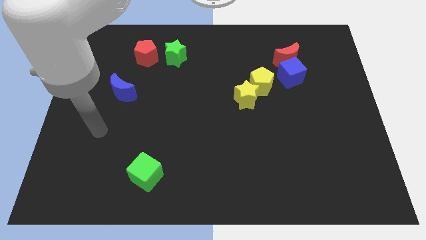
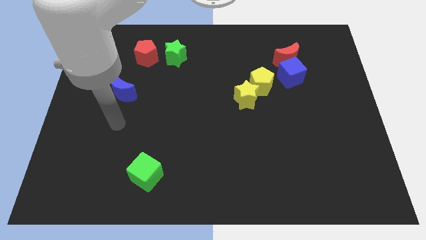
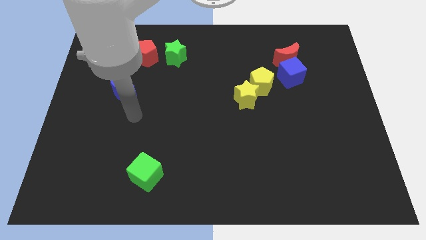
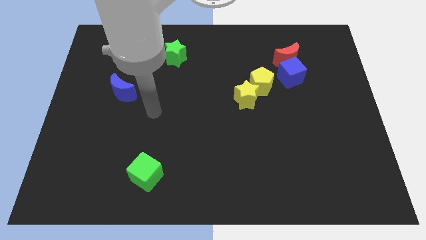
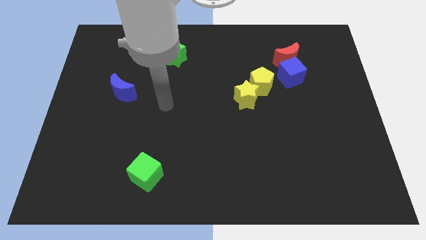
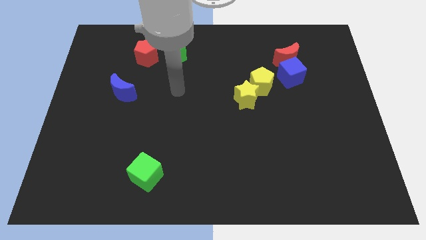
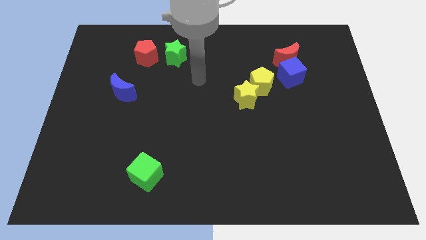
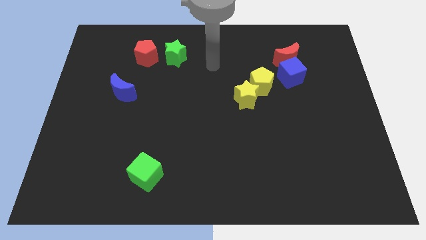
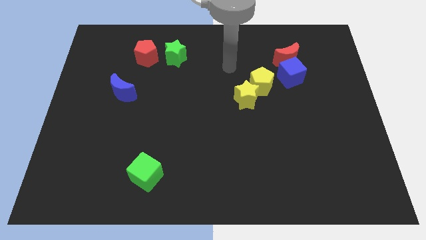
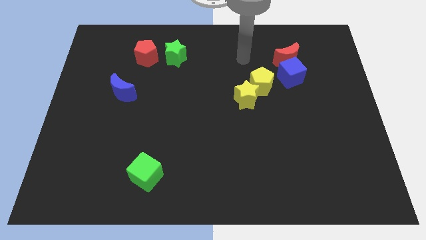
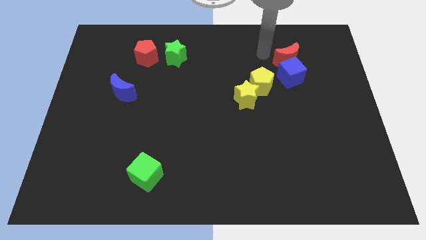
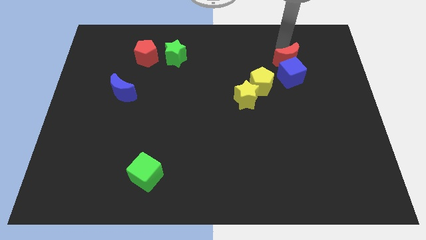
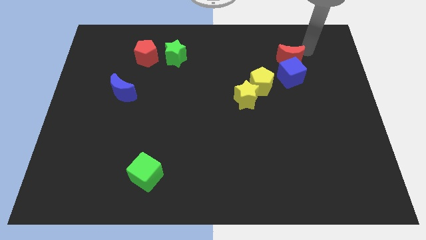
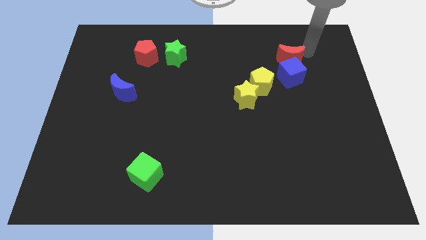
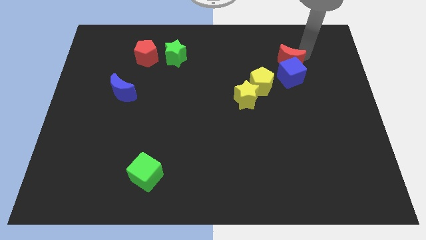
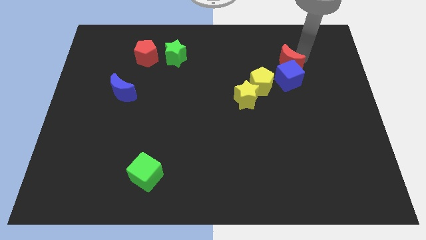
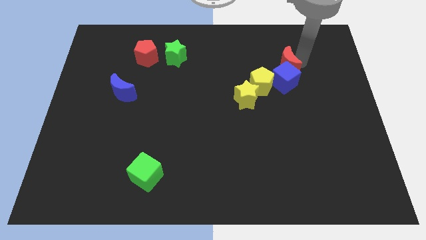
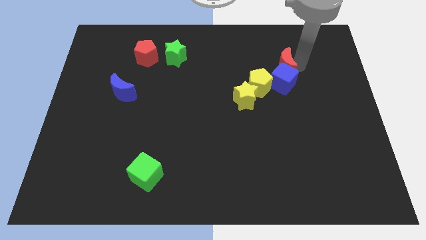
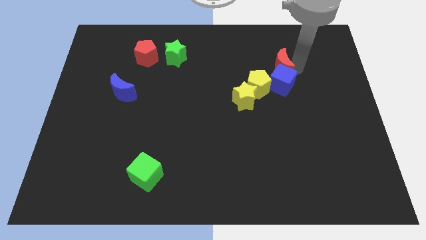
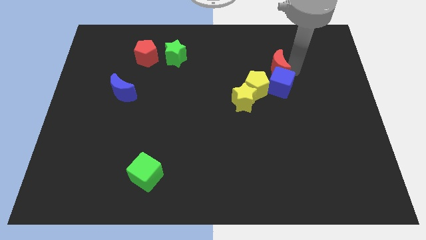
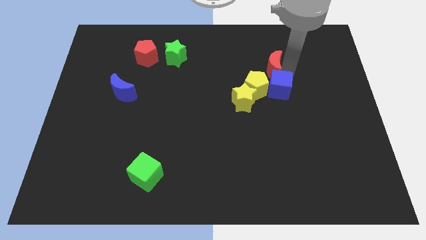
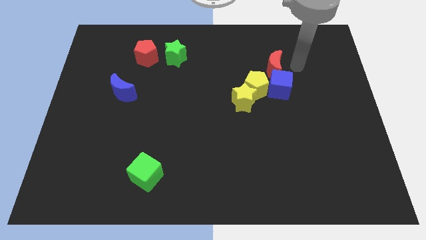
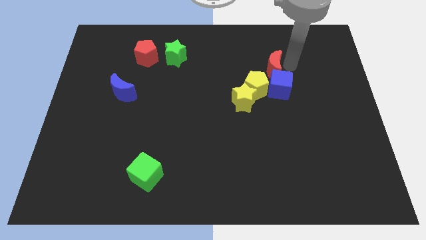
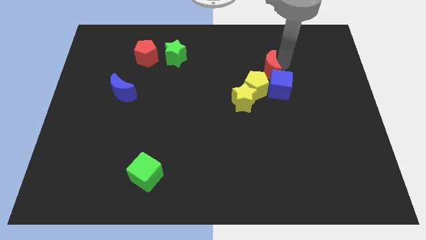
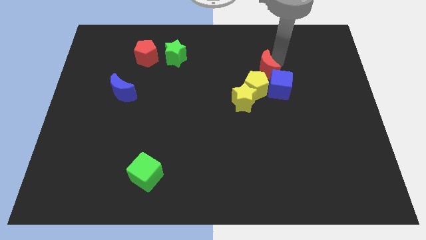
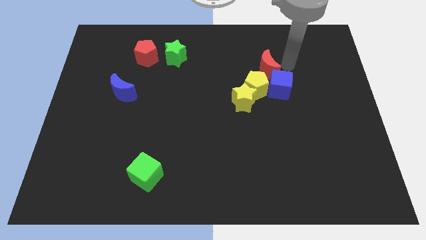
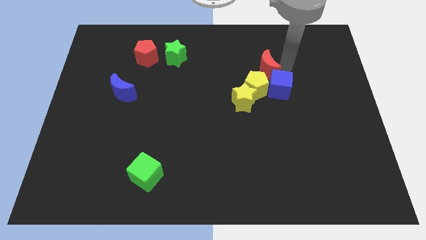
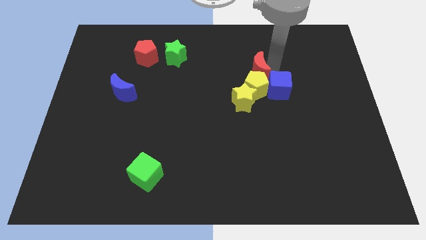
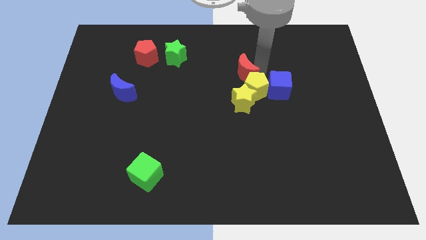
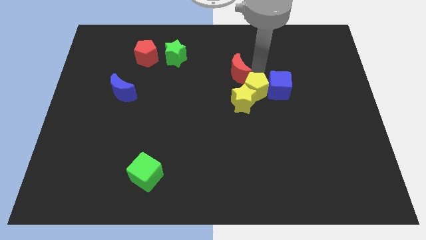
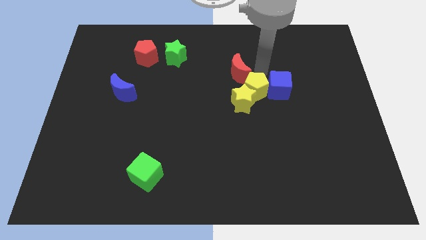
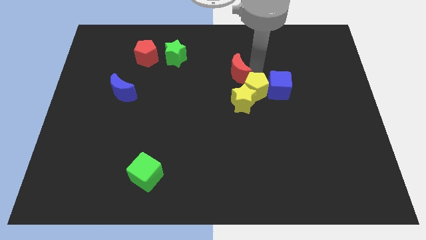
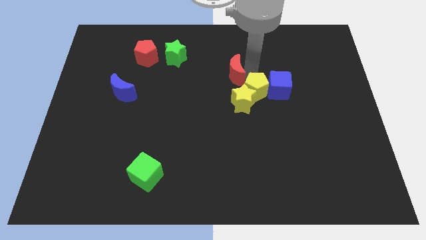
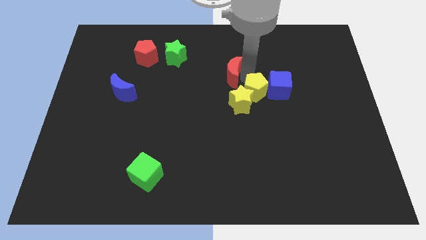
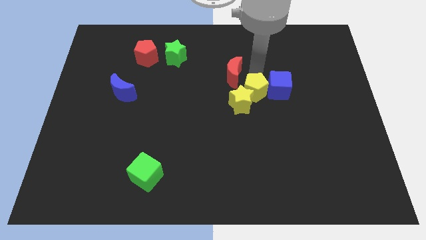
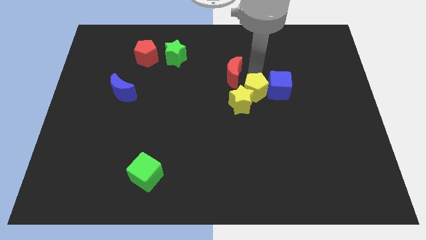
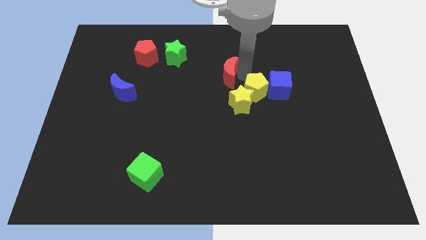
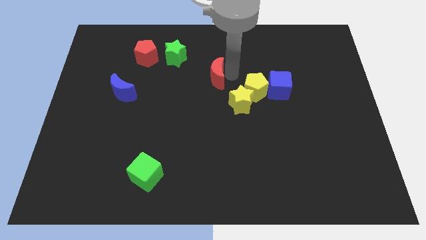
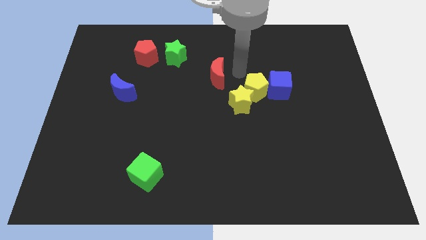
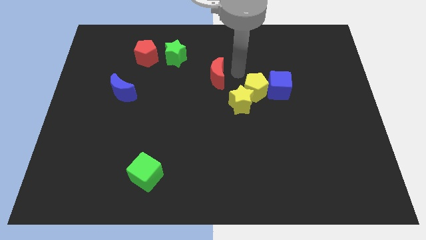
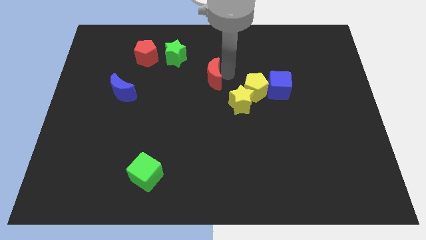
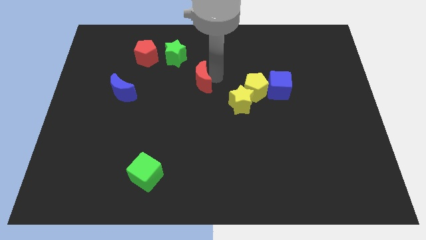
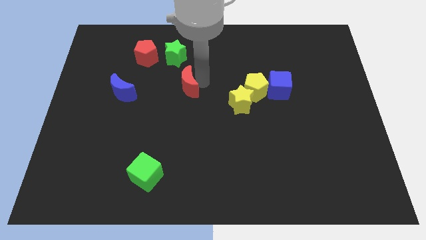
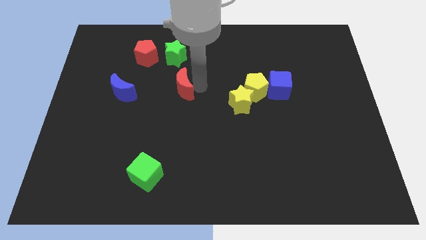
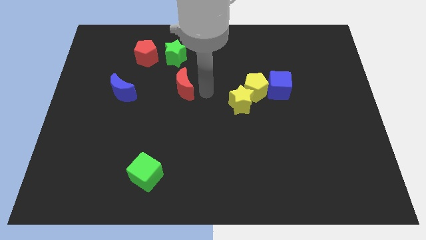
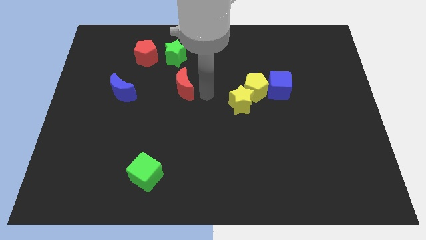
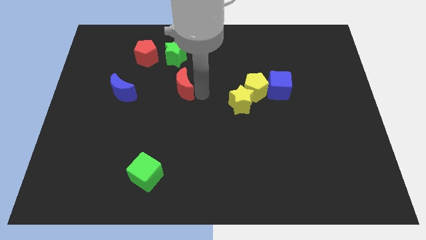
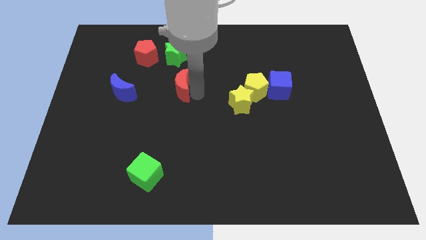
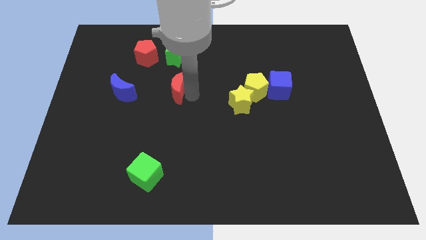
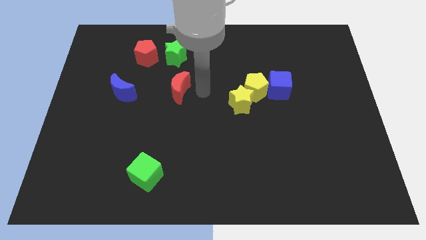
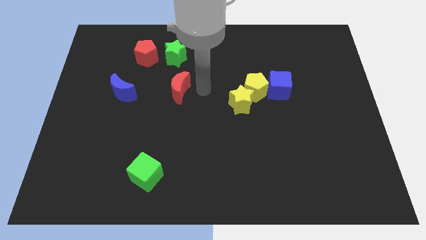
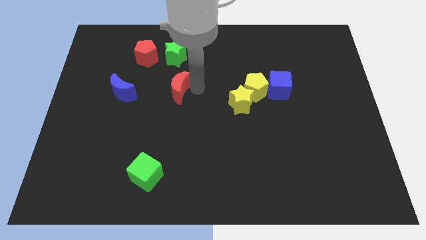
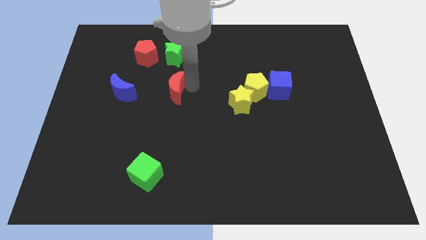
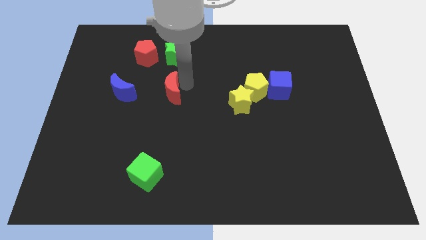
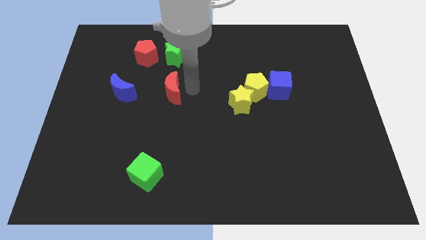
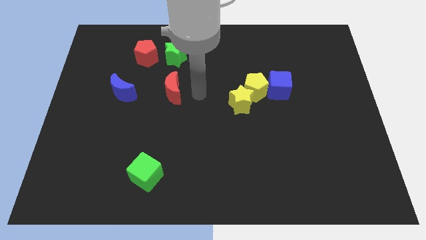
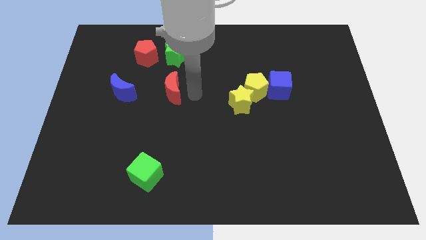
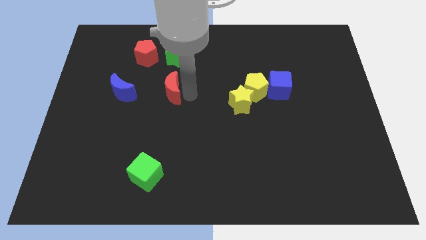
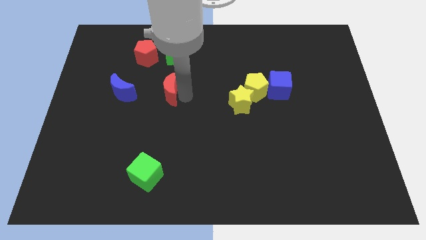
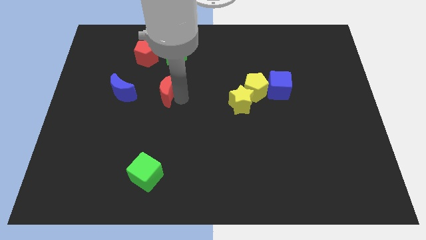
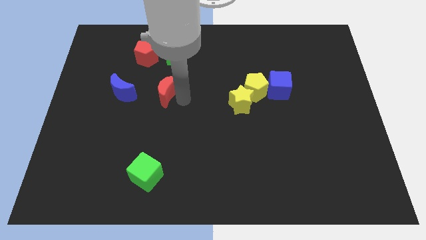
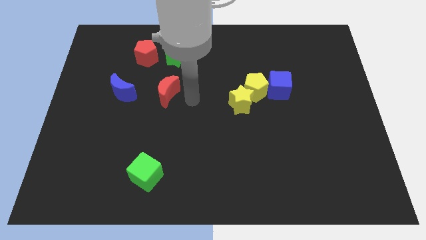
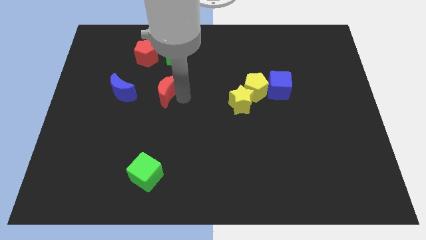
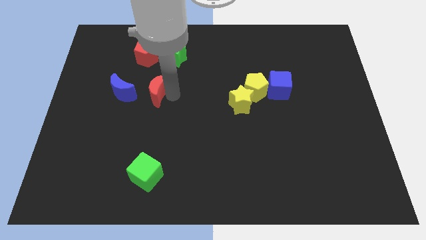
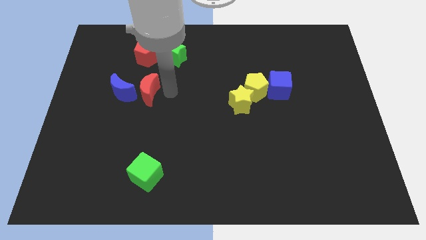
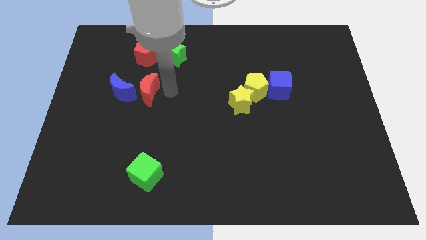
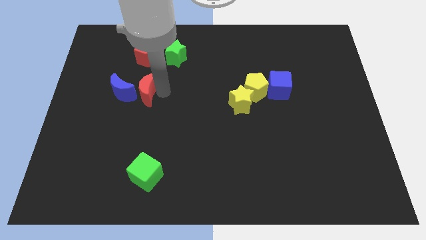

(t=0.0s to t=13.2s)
put the red moon close to the blue moon

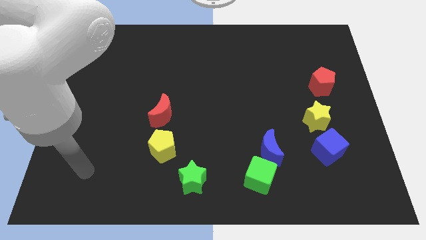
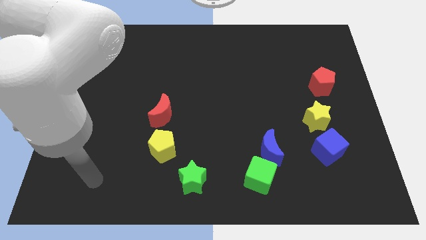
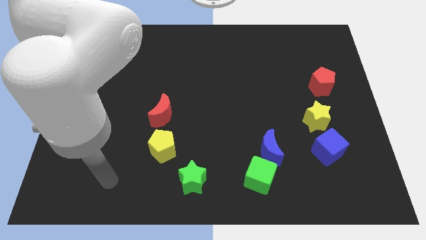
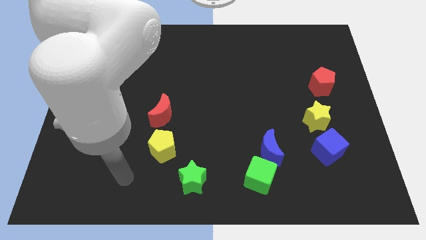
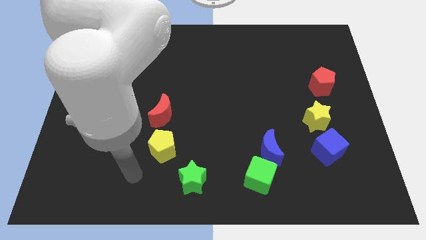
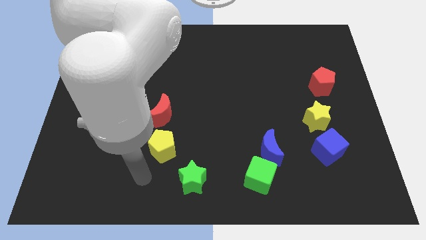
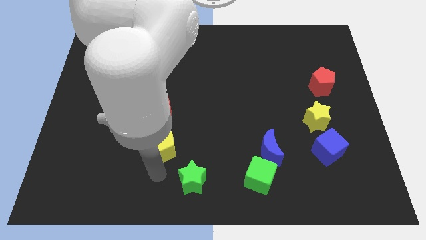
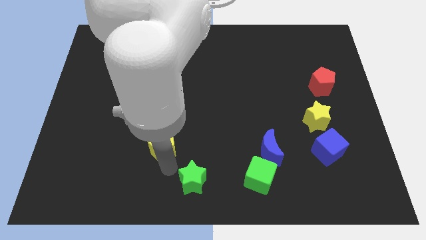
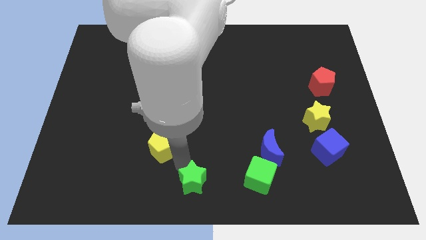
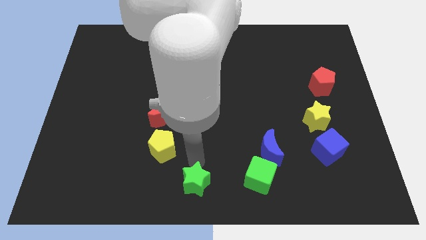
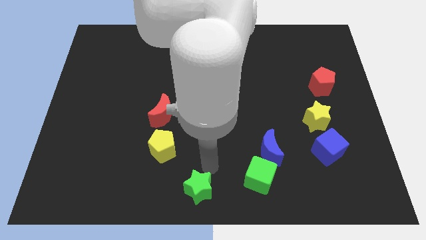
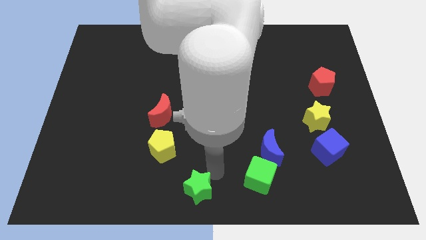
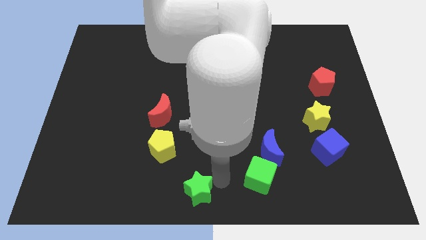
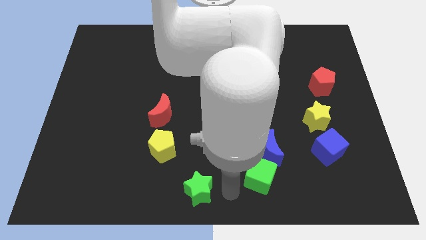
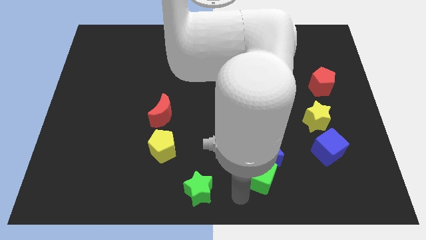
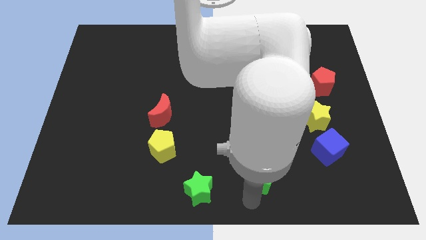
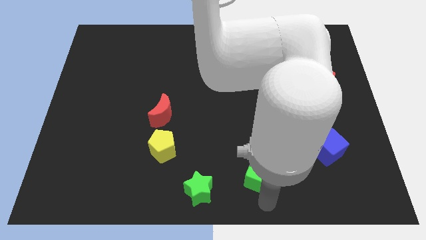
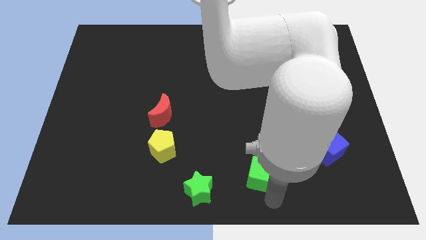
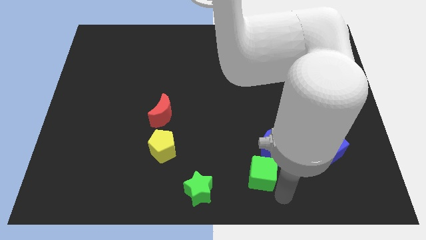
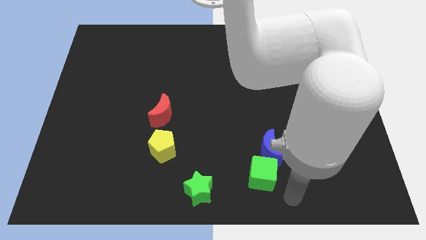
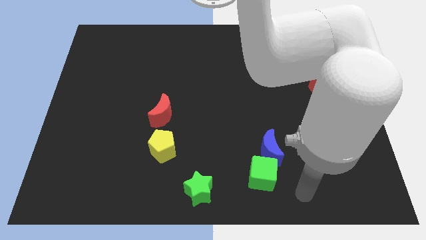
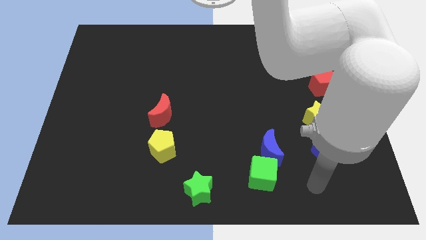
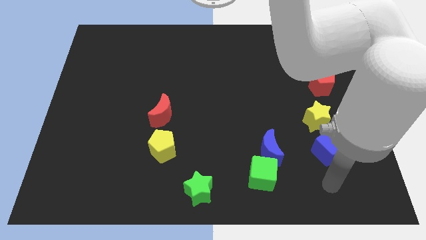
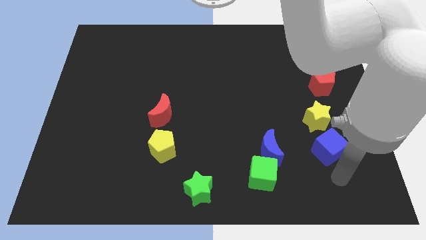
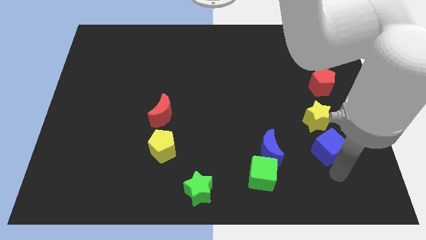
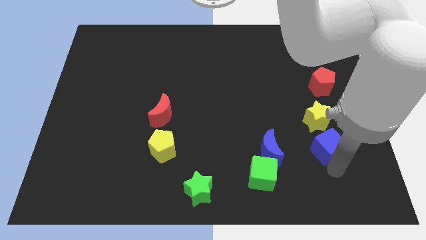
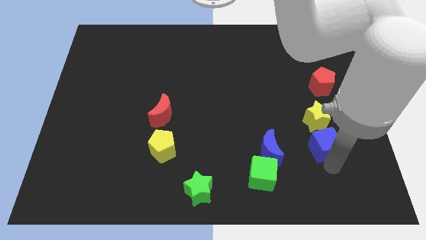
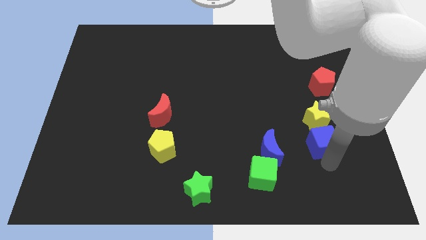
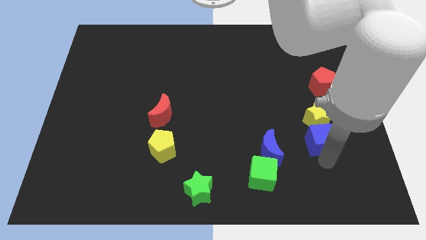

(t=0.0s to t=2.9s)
slide the blue cube to the yellow star
